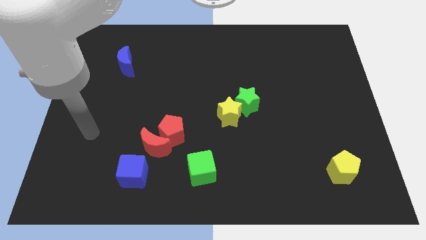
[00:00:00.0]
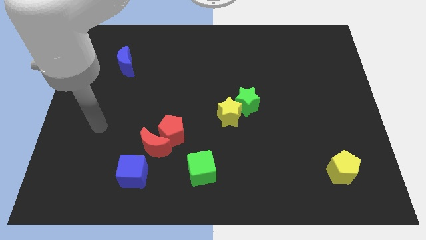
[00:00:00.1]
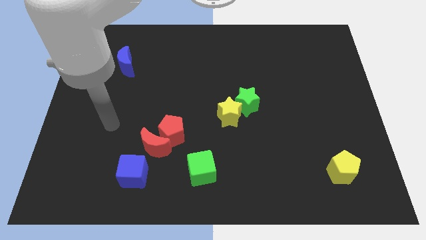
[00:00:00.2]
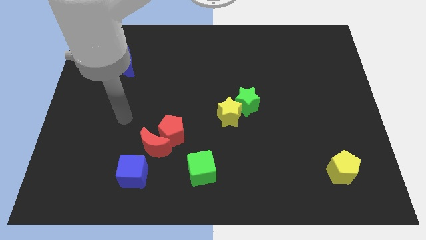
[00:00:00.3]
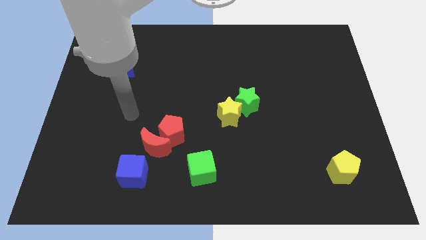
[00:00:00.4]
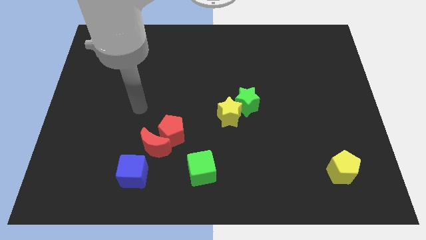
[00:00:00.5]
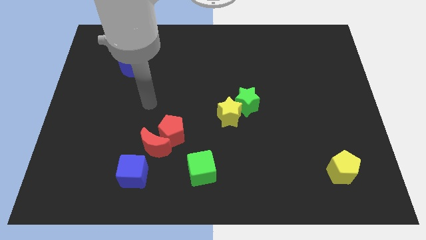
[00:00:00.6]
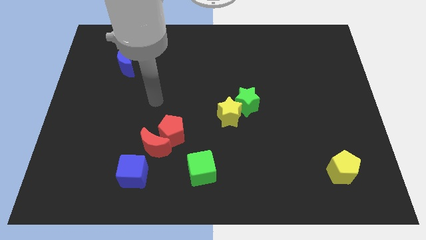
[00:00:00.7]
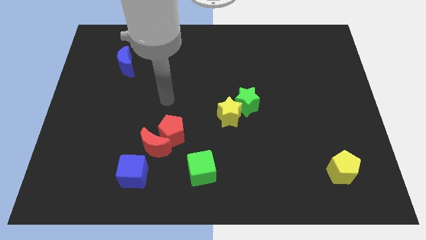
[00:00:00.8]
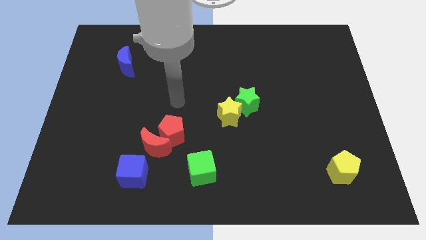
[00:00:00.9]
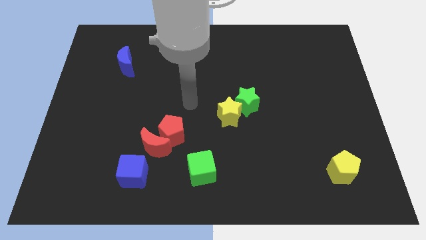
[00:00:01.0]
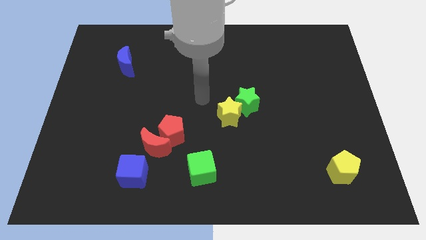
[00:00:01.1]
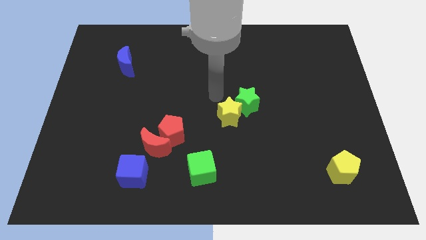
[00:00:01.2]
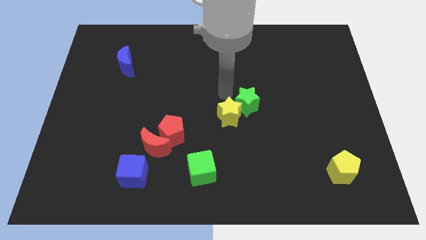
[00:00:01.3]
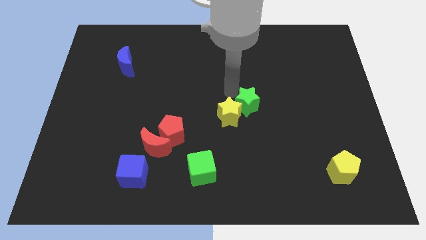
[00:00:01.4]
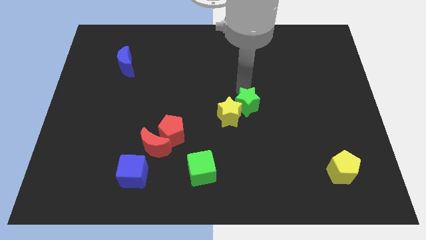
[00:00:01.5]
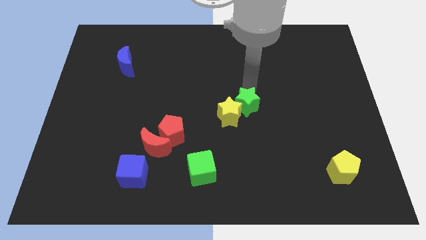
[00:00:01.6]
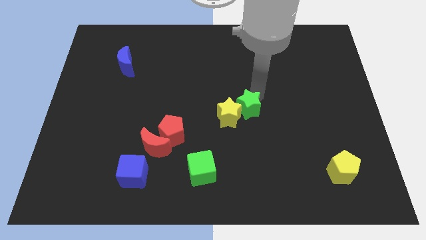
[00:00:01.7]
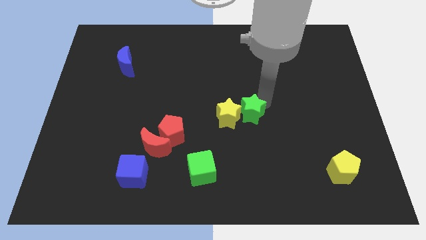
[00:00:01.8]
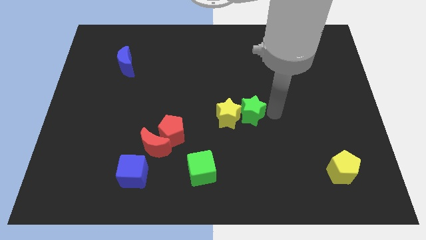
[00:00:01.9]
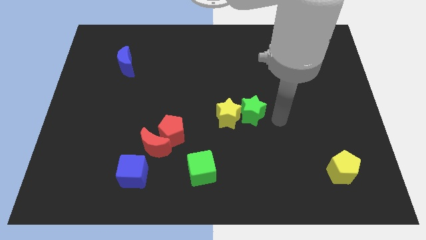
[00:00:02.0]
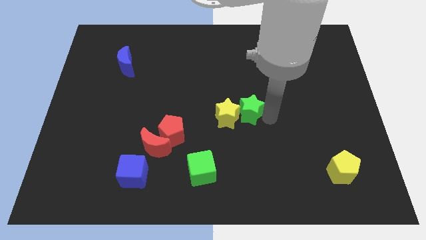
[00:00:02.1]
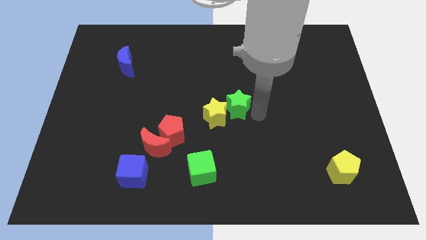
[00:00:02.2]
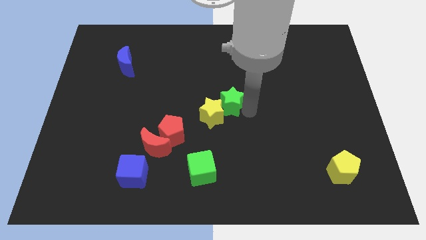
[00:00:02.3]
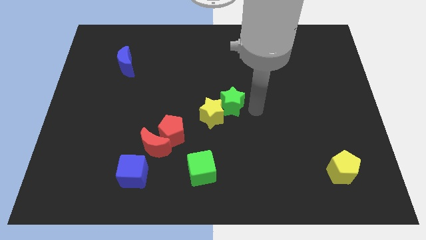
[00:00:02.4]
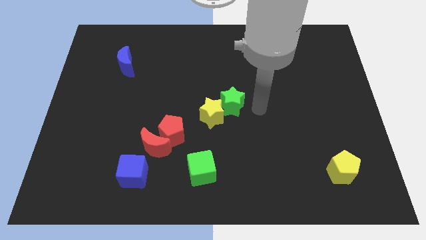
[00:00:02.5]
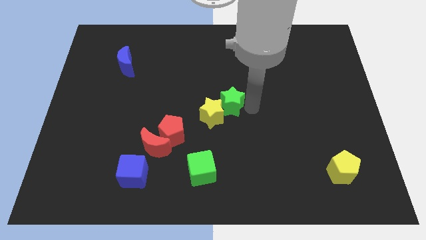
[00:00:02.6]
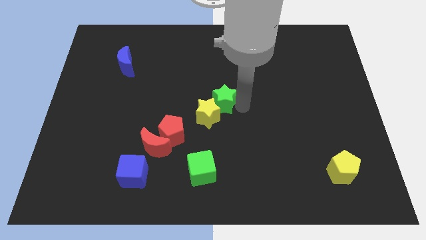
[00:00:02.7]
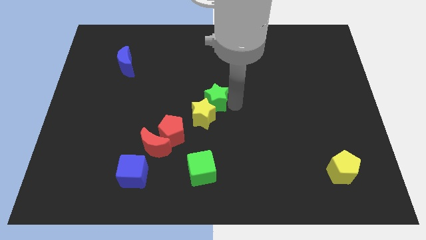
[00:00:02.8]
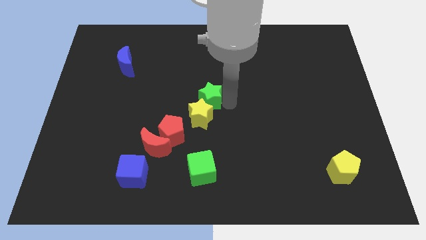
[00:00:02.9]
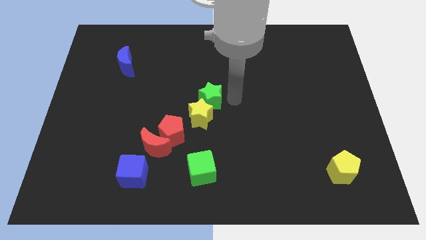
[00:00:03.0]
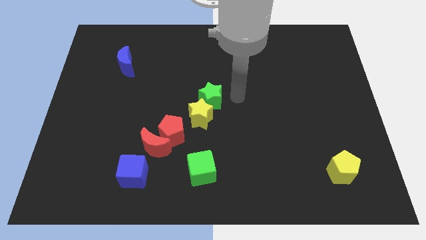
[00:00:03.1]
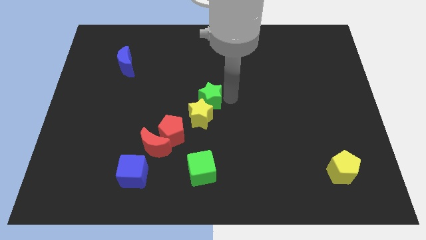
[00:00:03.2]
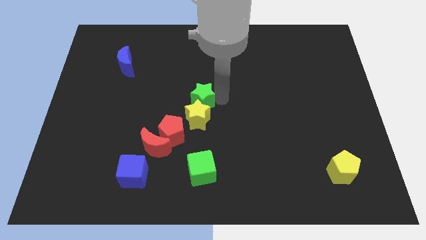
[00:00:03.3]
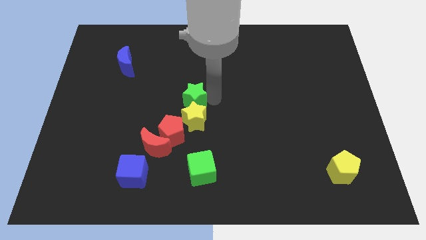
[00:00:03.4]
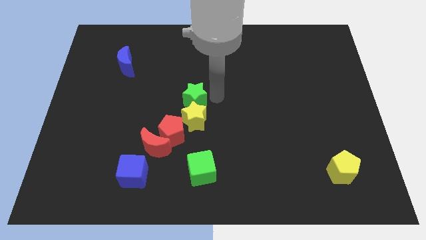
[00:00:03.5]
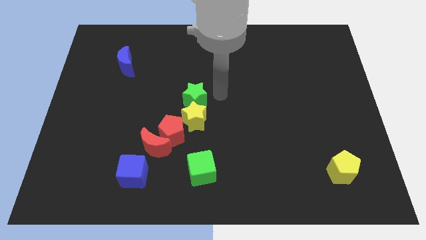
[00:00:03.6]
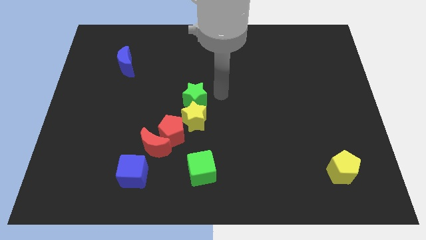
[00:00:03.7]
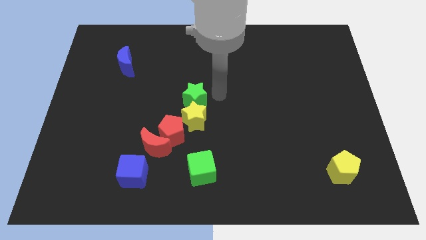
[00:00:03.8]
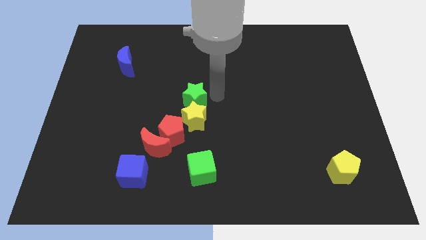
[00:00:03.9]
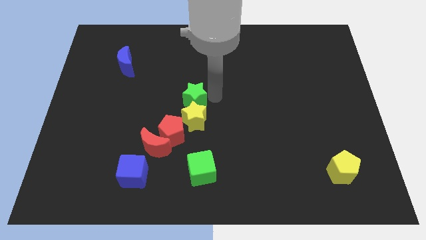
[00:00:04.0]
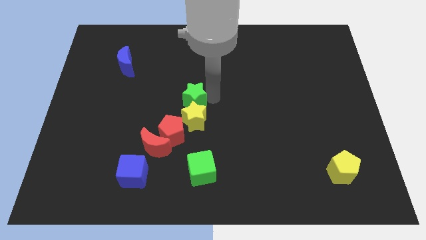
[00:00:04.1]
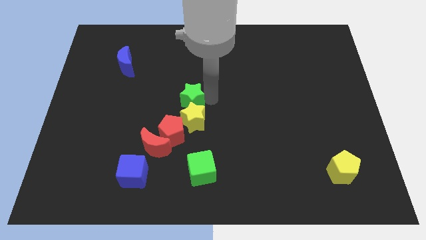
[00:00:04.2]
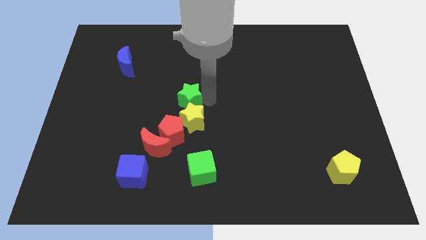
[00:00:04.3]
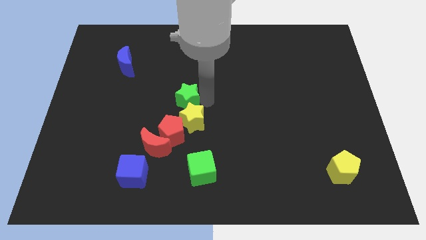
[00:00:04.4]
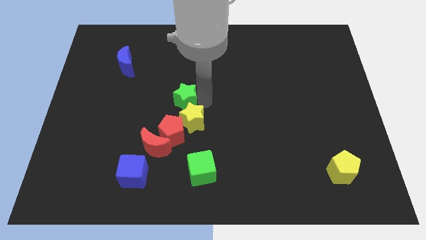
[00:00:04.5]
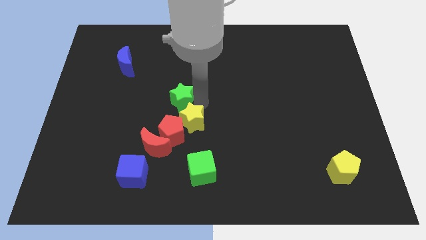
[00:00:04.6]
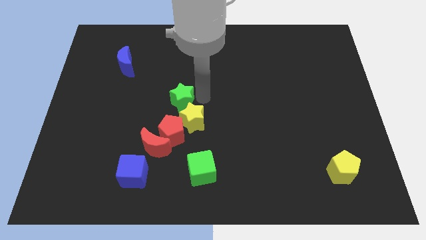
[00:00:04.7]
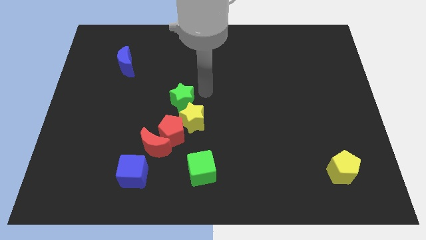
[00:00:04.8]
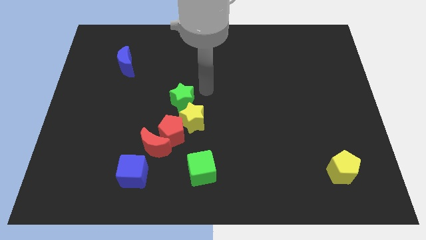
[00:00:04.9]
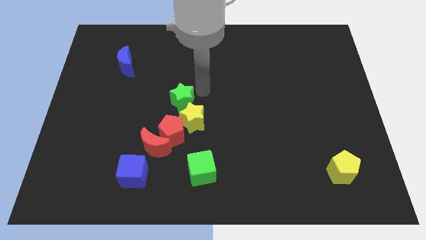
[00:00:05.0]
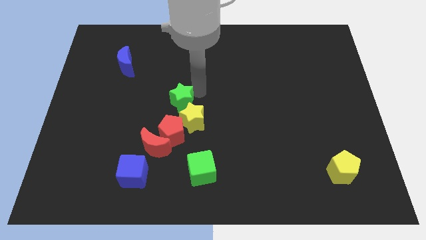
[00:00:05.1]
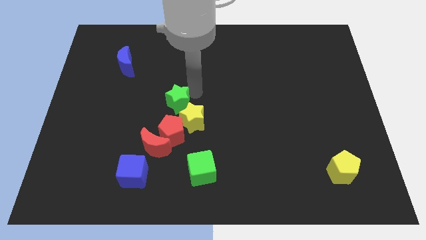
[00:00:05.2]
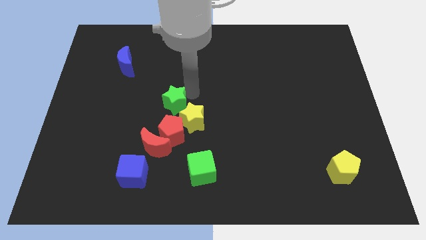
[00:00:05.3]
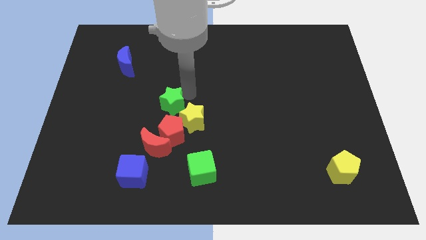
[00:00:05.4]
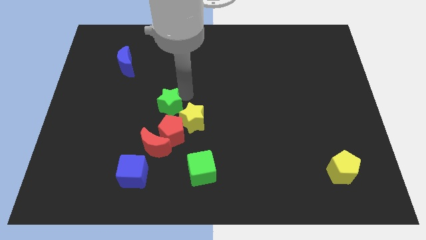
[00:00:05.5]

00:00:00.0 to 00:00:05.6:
move the green star to the top left side of the red pentagon

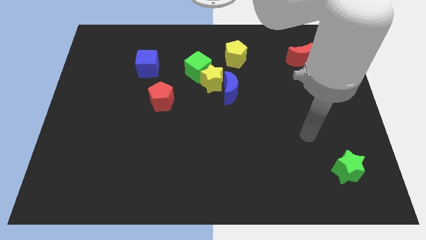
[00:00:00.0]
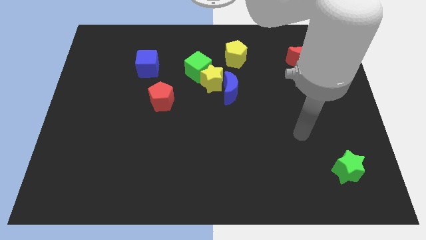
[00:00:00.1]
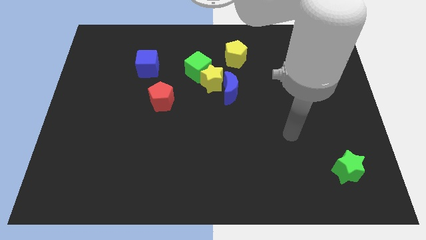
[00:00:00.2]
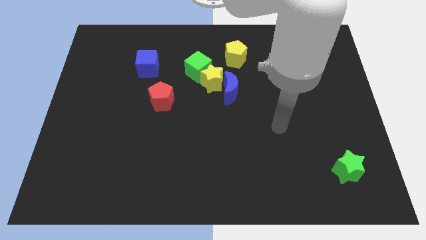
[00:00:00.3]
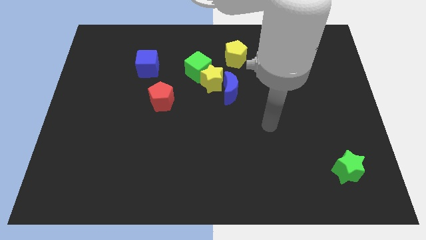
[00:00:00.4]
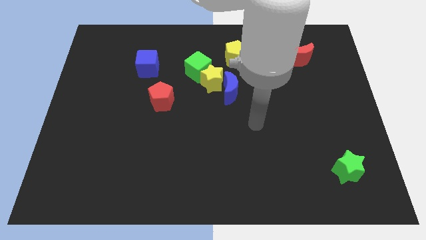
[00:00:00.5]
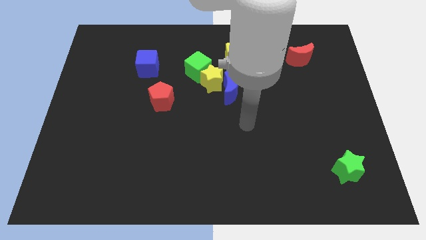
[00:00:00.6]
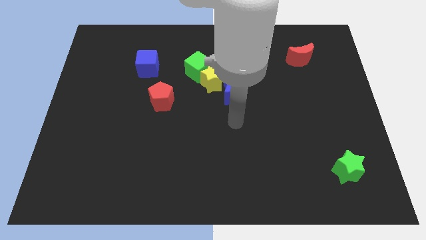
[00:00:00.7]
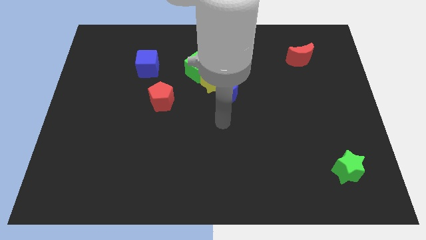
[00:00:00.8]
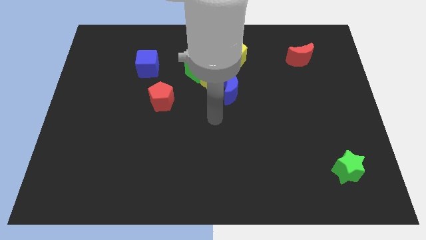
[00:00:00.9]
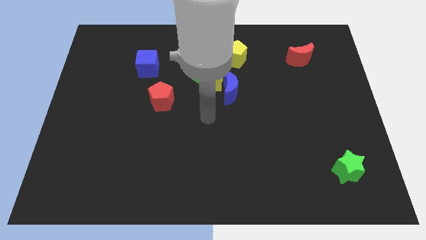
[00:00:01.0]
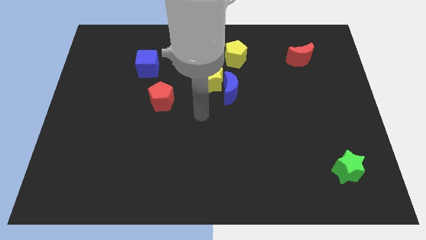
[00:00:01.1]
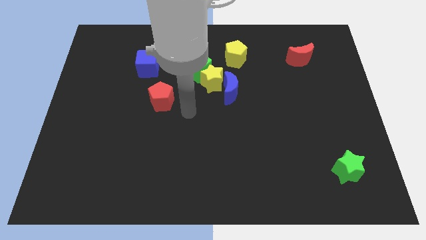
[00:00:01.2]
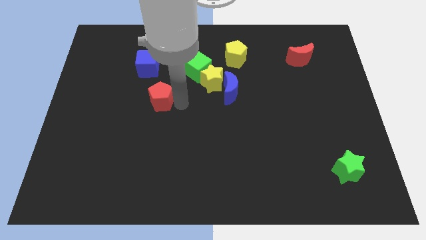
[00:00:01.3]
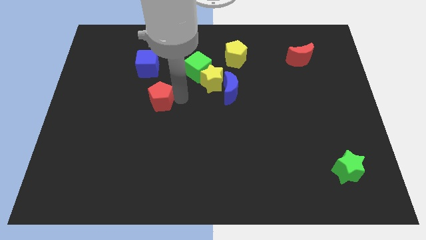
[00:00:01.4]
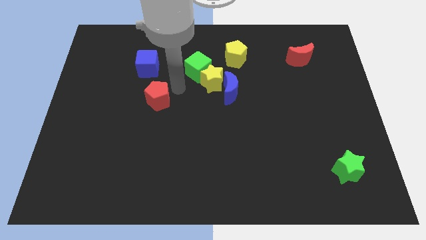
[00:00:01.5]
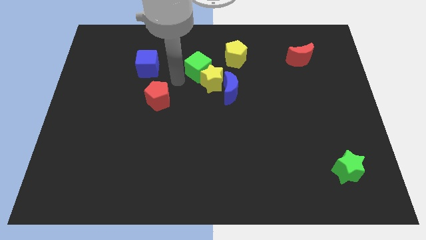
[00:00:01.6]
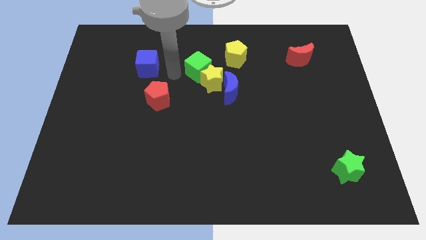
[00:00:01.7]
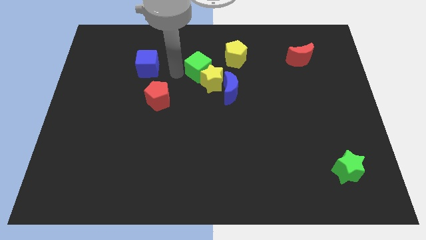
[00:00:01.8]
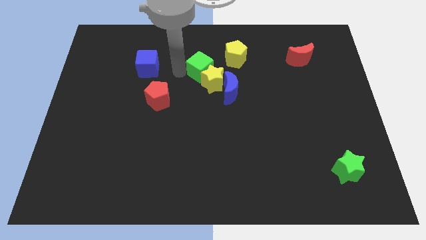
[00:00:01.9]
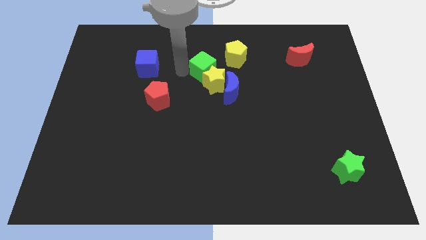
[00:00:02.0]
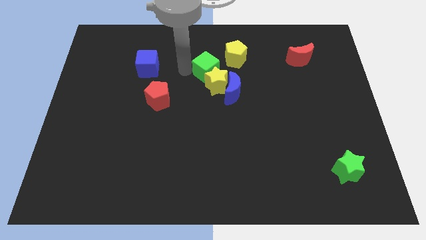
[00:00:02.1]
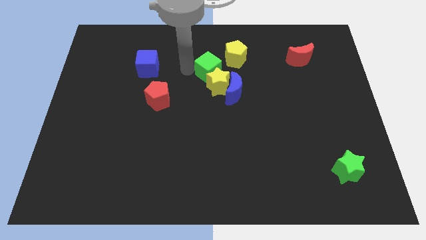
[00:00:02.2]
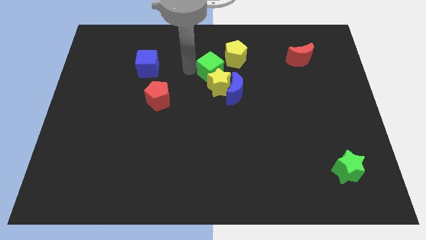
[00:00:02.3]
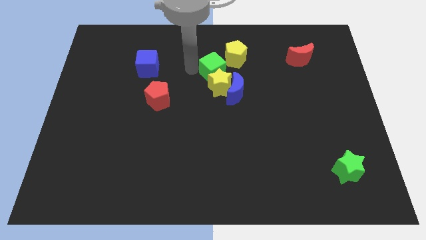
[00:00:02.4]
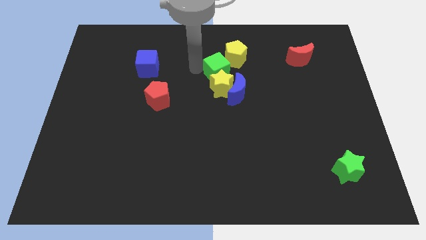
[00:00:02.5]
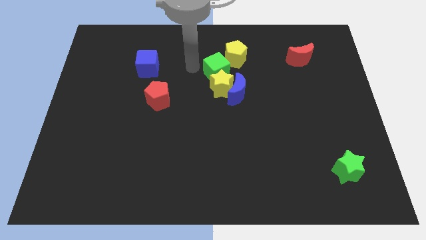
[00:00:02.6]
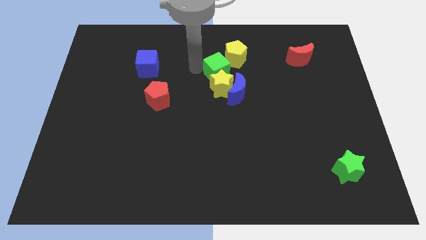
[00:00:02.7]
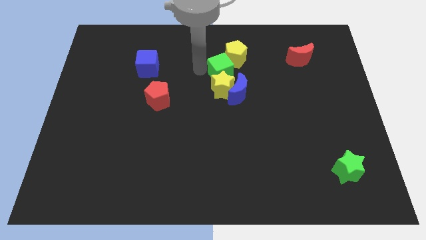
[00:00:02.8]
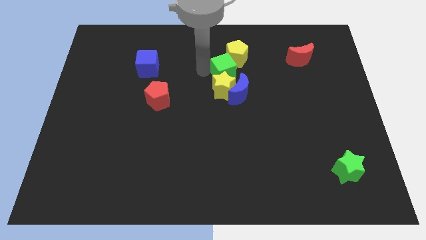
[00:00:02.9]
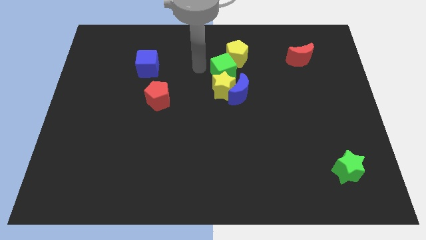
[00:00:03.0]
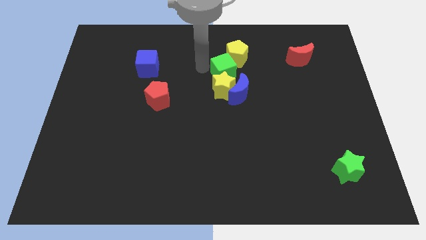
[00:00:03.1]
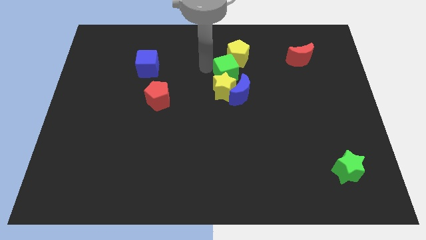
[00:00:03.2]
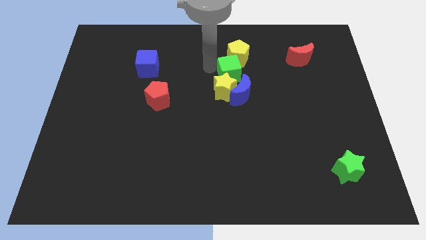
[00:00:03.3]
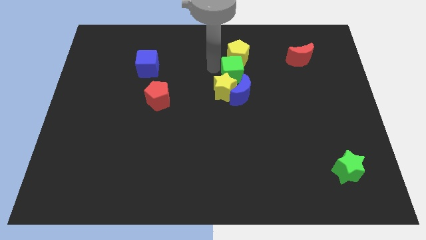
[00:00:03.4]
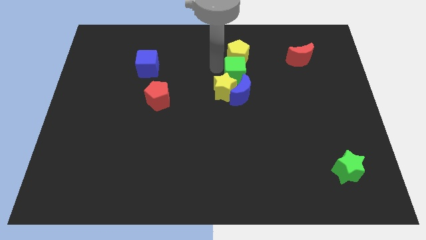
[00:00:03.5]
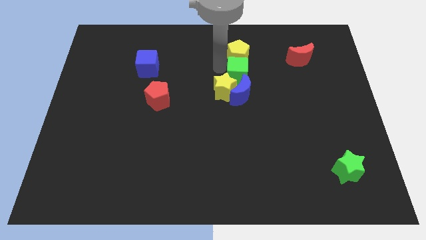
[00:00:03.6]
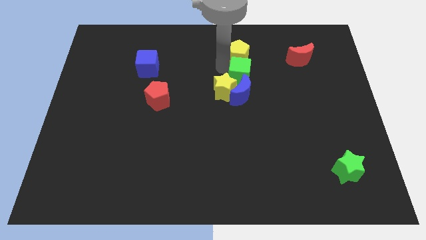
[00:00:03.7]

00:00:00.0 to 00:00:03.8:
push the green cube diagonally up and to the right of the blue moon
